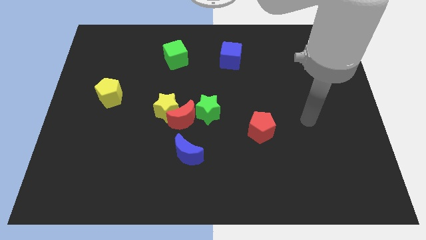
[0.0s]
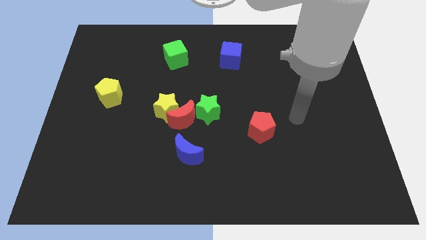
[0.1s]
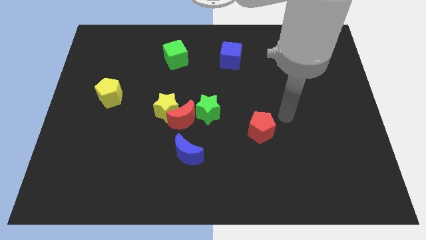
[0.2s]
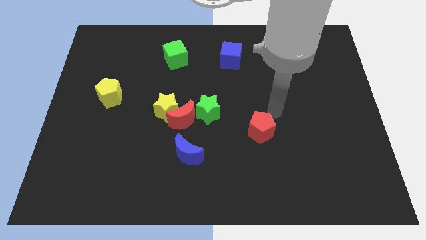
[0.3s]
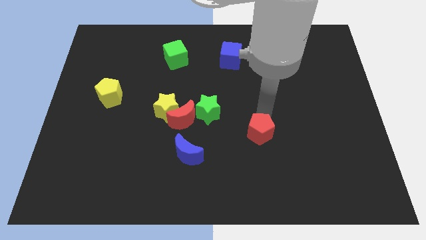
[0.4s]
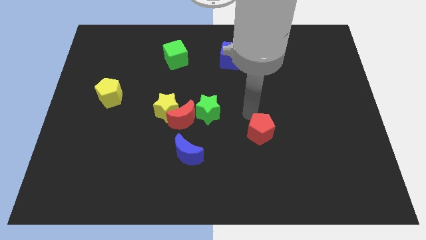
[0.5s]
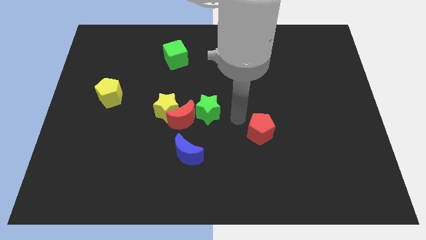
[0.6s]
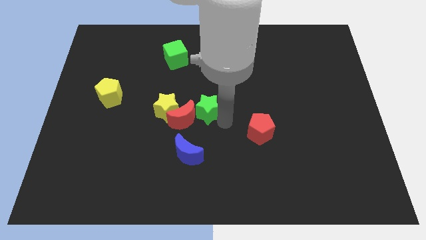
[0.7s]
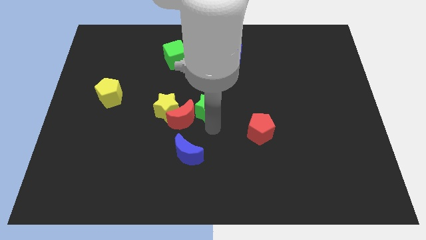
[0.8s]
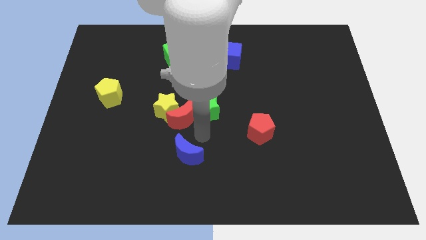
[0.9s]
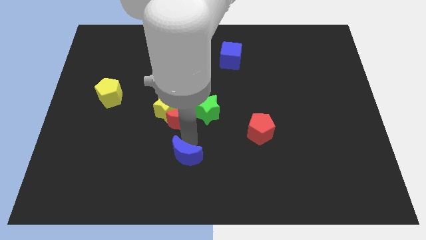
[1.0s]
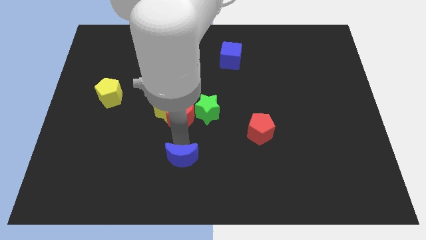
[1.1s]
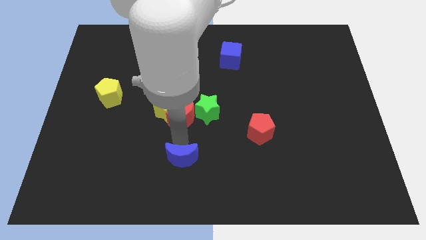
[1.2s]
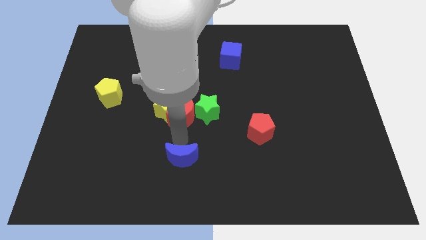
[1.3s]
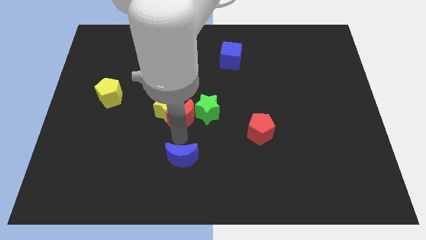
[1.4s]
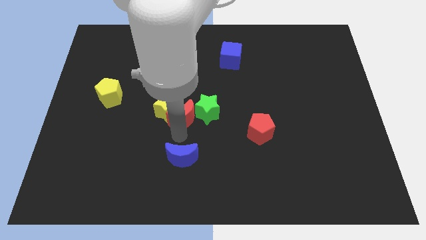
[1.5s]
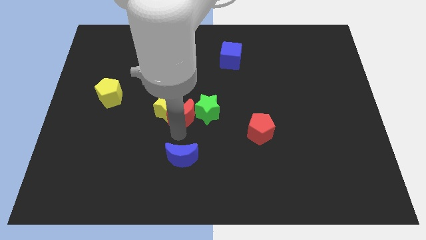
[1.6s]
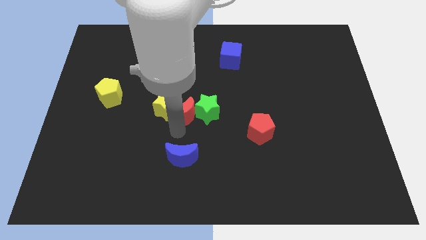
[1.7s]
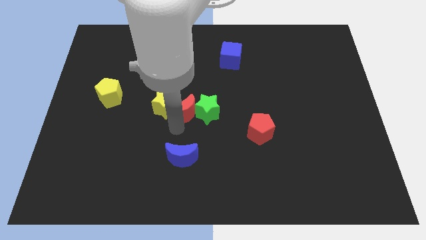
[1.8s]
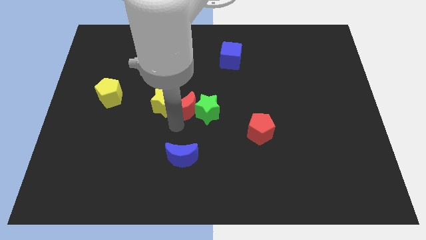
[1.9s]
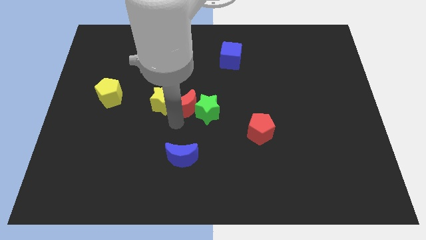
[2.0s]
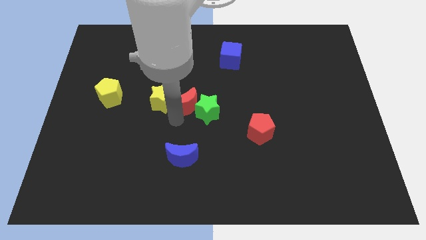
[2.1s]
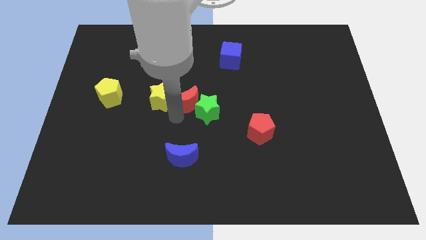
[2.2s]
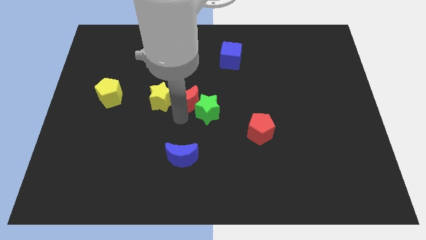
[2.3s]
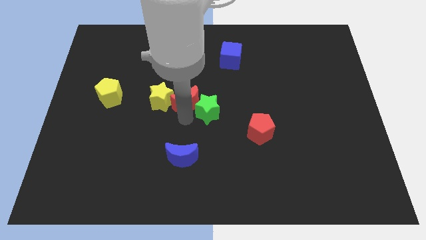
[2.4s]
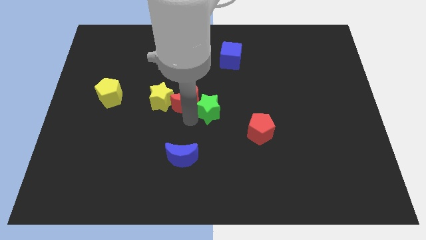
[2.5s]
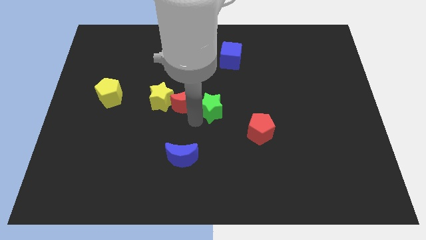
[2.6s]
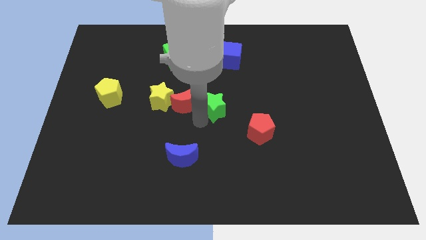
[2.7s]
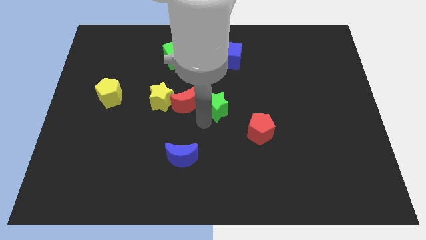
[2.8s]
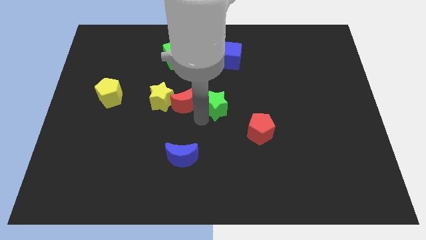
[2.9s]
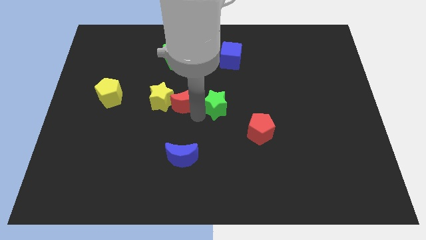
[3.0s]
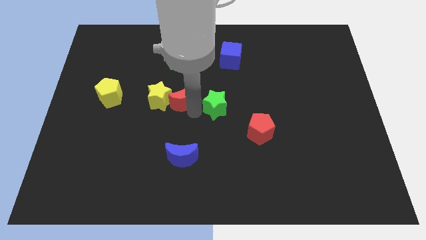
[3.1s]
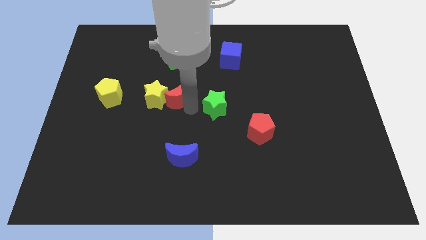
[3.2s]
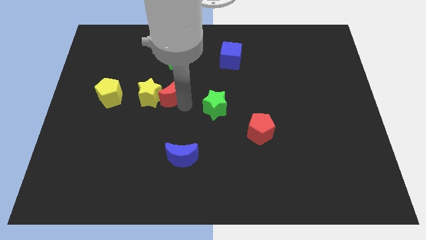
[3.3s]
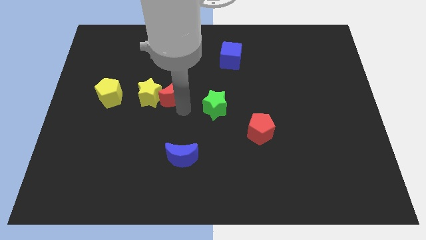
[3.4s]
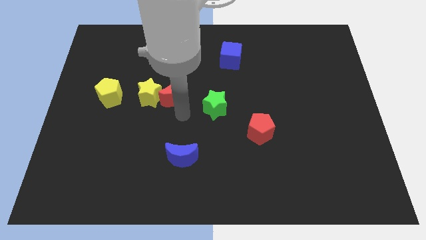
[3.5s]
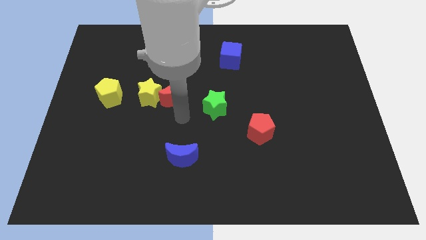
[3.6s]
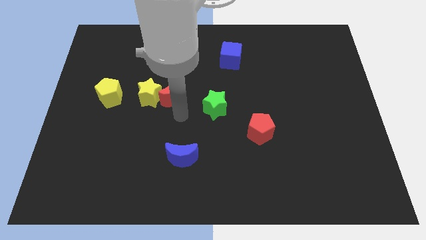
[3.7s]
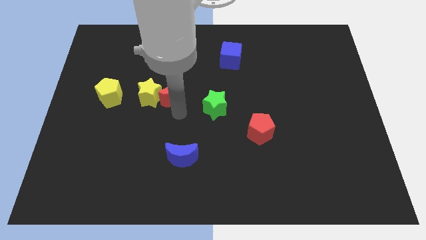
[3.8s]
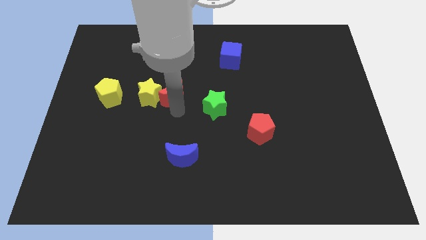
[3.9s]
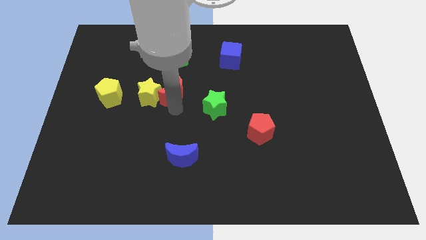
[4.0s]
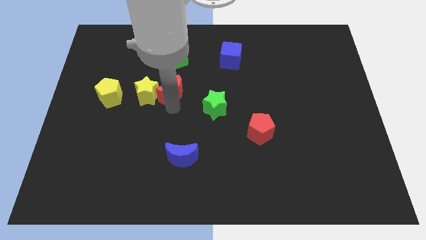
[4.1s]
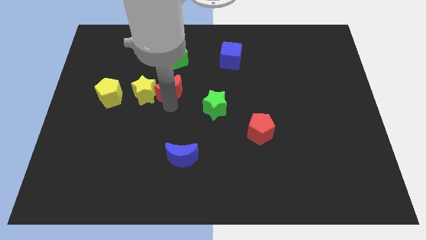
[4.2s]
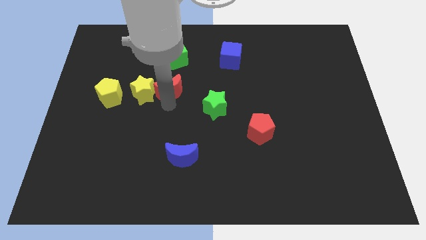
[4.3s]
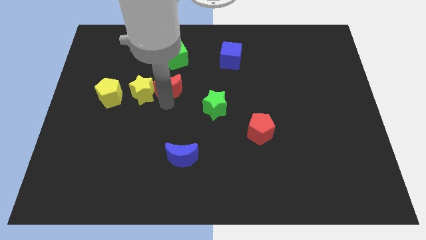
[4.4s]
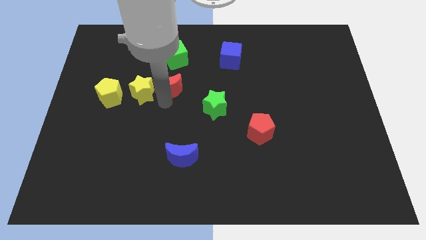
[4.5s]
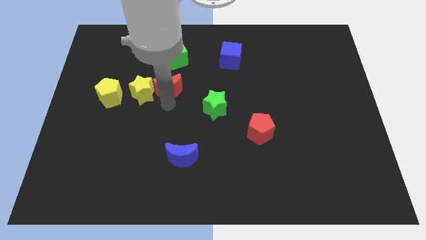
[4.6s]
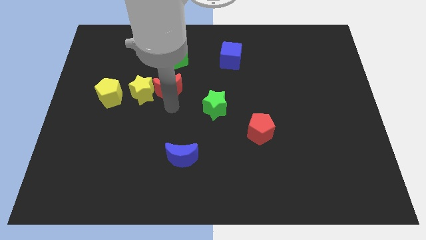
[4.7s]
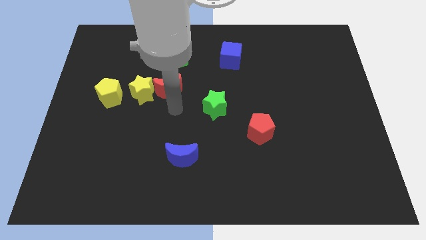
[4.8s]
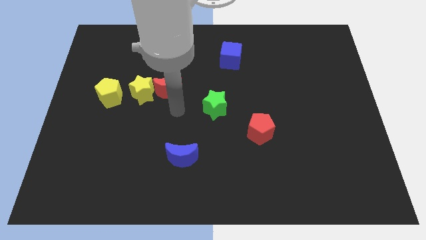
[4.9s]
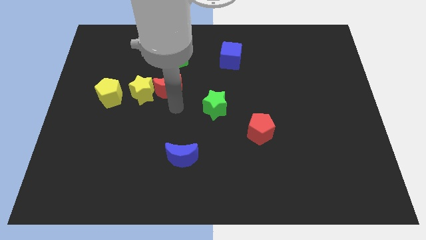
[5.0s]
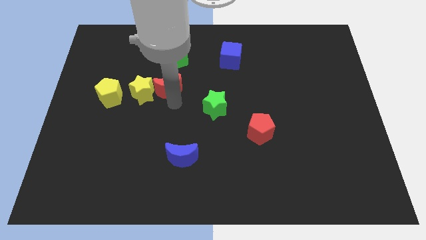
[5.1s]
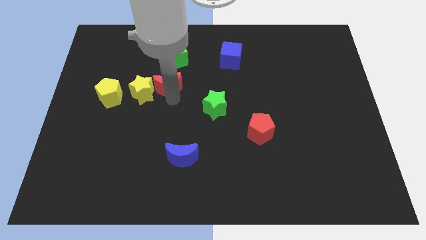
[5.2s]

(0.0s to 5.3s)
pull the red moon apart from the yellow star, green star, and blue moon

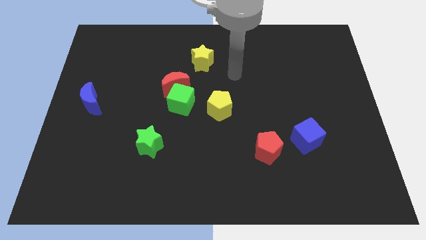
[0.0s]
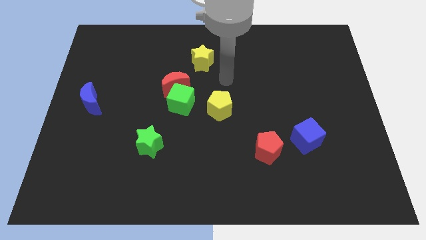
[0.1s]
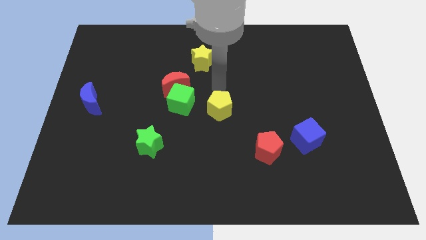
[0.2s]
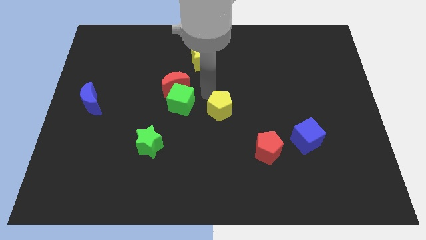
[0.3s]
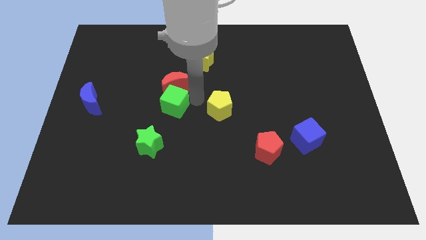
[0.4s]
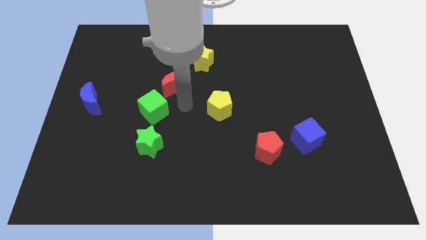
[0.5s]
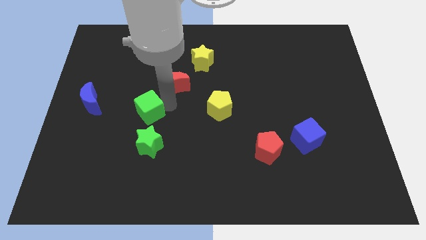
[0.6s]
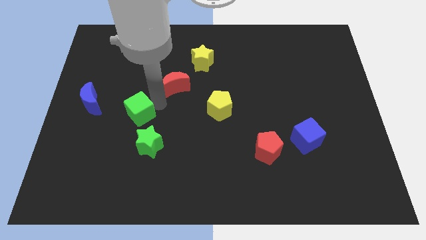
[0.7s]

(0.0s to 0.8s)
pull the red moon apart from the green cube

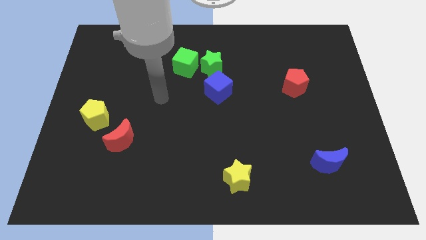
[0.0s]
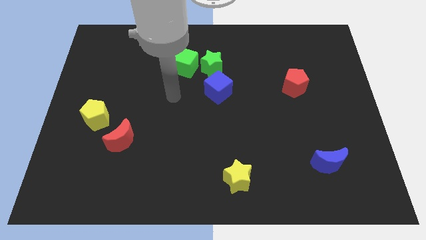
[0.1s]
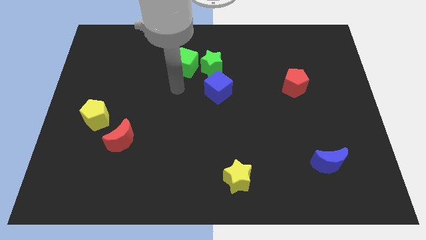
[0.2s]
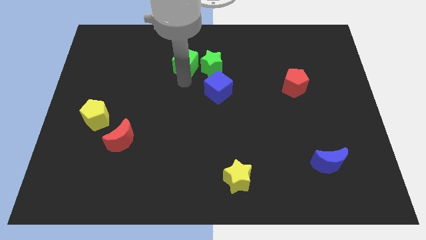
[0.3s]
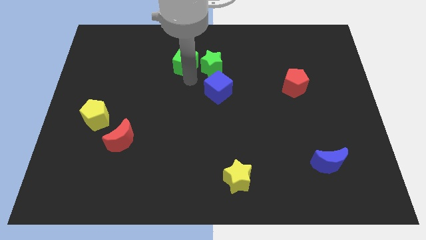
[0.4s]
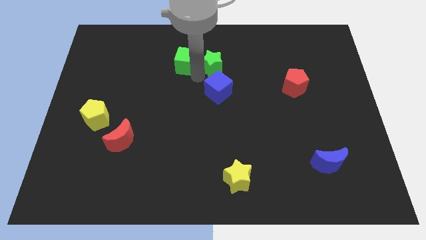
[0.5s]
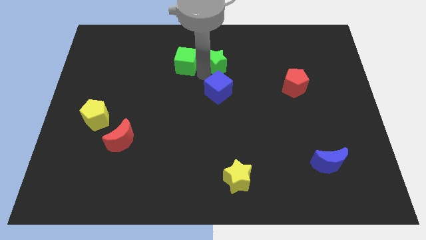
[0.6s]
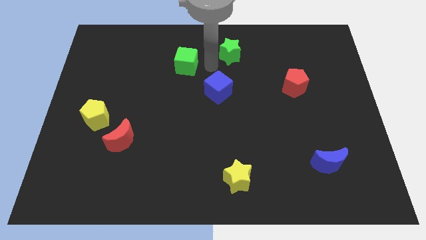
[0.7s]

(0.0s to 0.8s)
separate the green cube from the green star

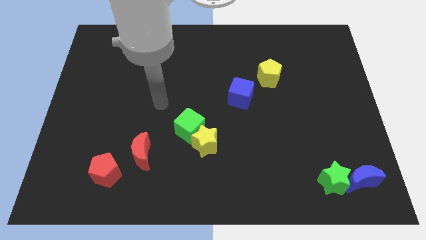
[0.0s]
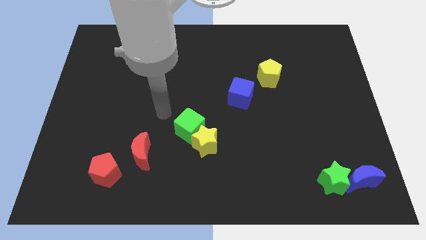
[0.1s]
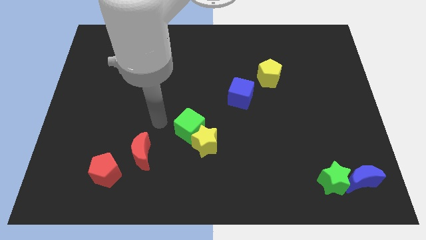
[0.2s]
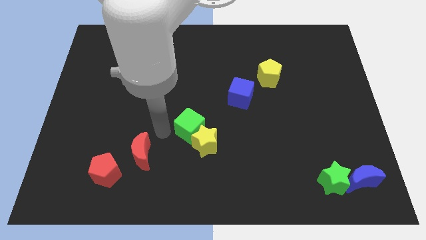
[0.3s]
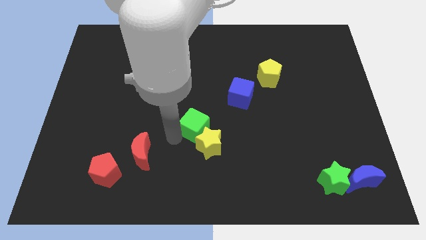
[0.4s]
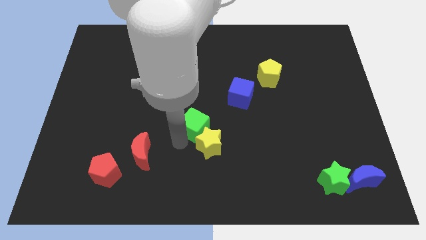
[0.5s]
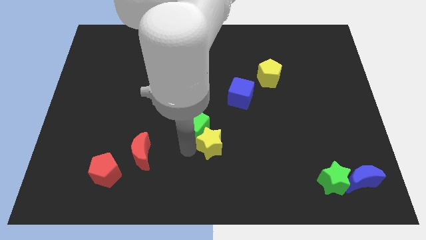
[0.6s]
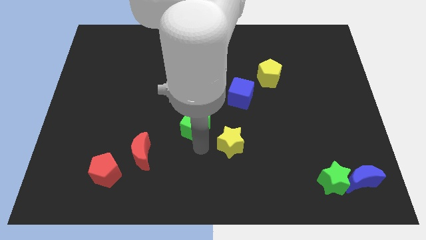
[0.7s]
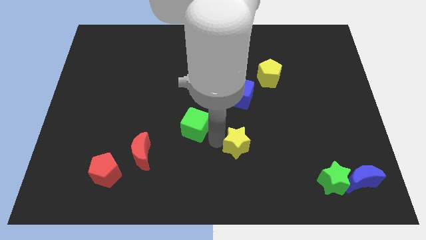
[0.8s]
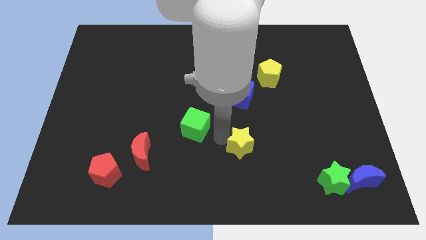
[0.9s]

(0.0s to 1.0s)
move the green cube away from the yellow star

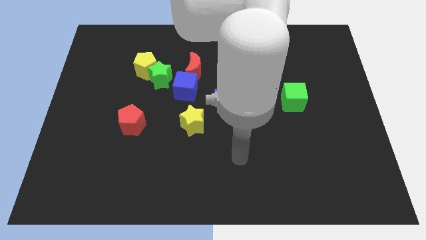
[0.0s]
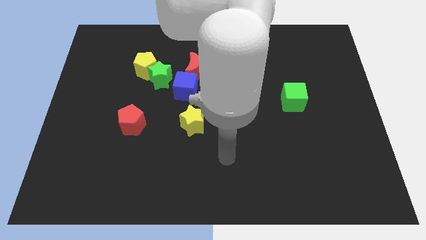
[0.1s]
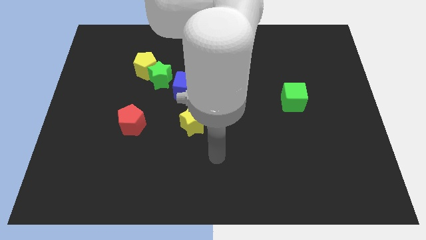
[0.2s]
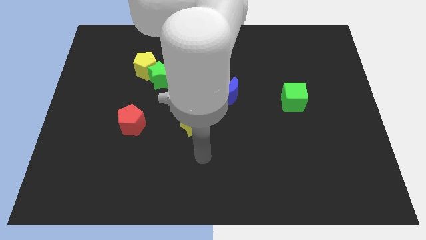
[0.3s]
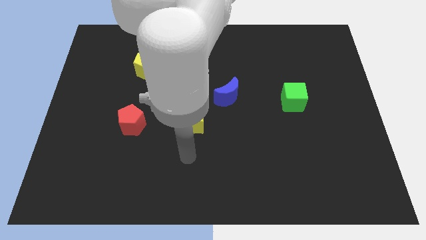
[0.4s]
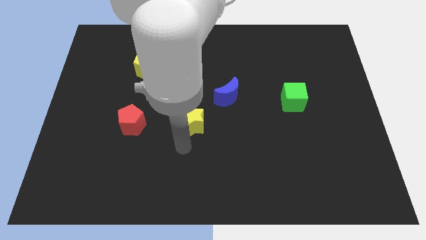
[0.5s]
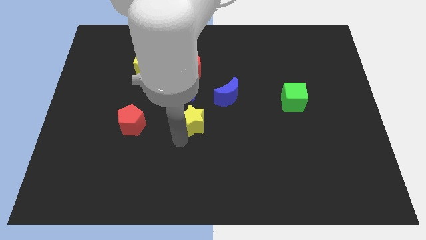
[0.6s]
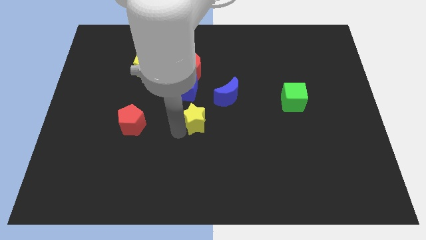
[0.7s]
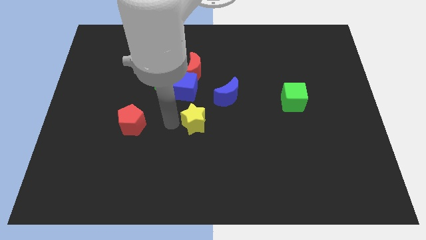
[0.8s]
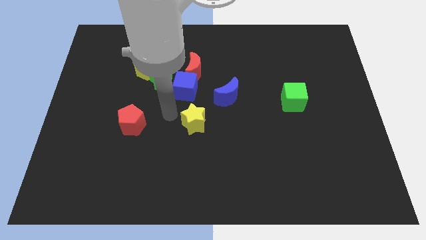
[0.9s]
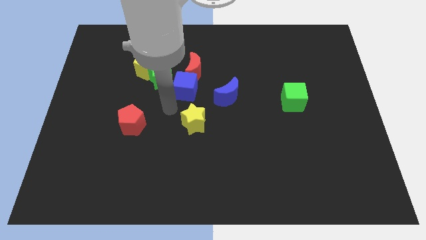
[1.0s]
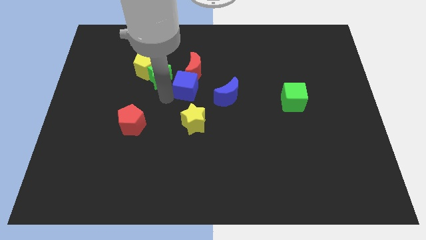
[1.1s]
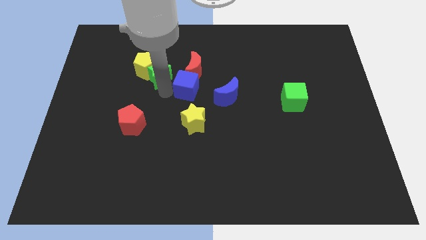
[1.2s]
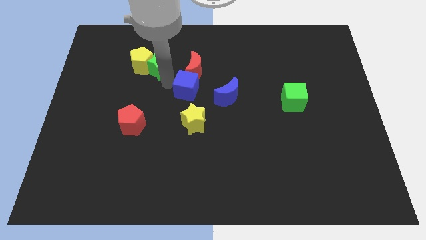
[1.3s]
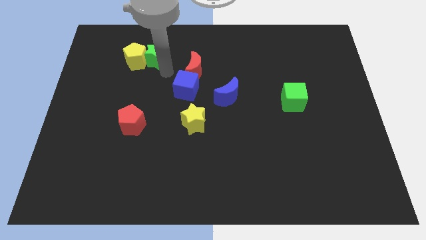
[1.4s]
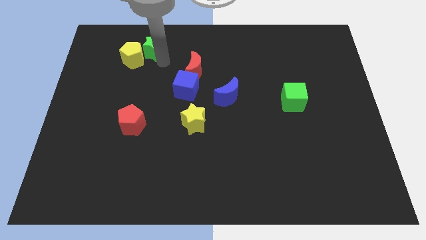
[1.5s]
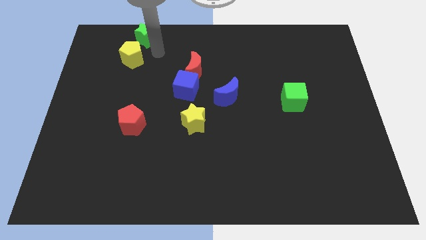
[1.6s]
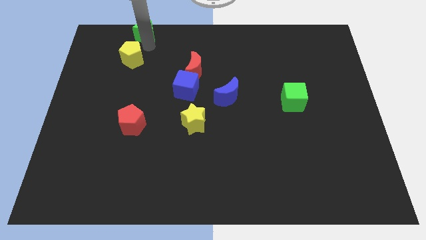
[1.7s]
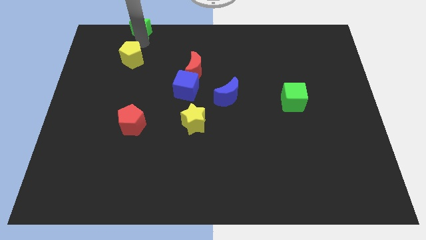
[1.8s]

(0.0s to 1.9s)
pull the yellow pentagon apart from the green star
